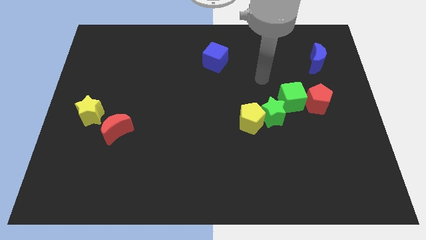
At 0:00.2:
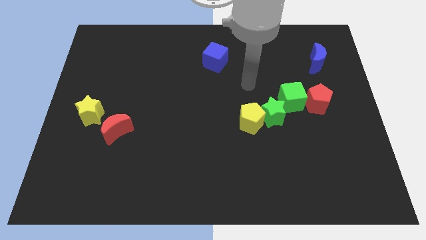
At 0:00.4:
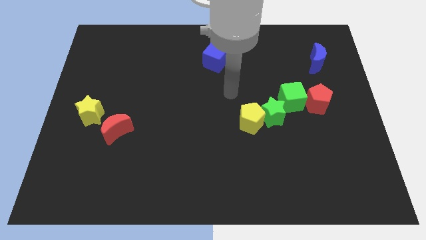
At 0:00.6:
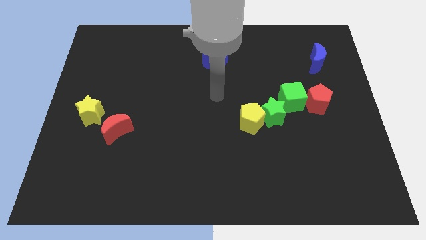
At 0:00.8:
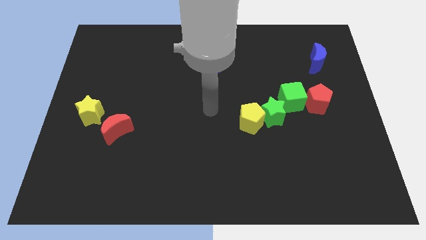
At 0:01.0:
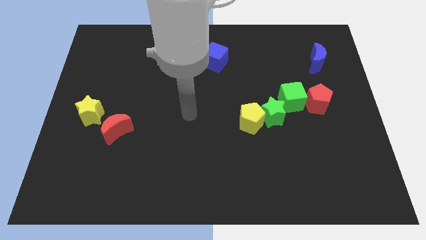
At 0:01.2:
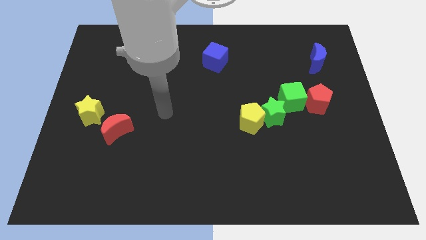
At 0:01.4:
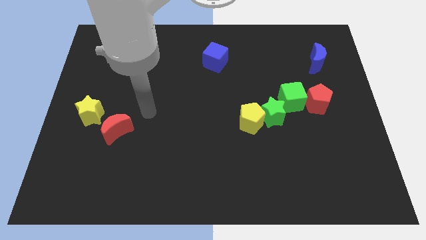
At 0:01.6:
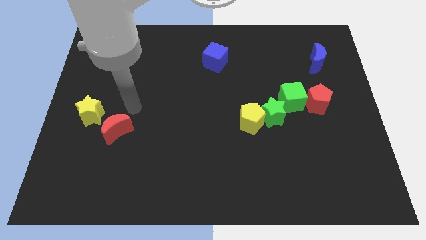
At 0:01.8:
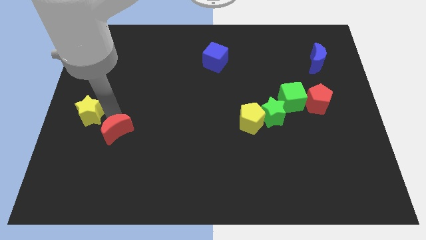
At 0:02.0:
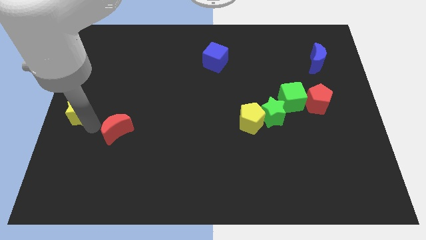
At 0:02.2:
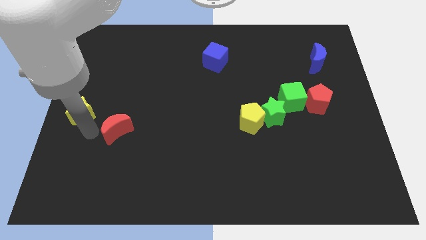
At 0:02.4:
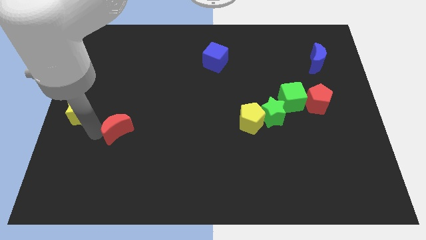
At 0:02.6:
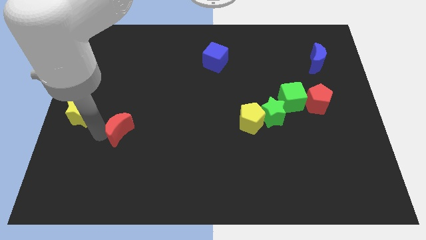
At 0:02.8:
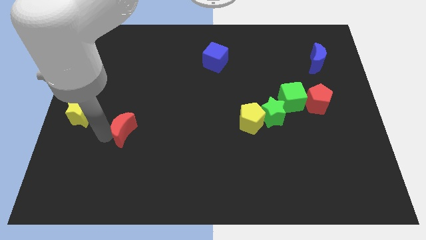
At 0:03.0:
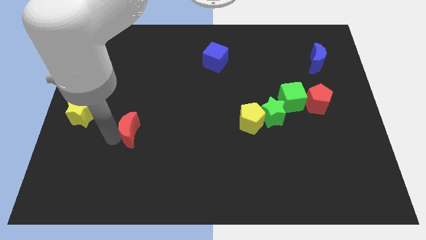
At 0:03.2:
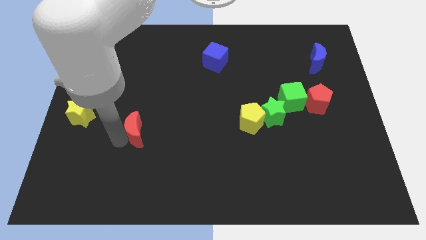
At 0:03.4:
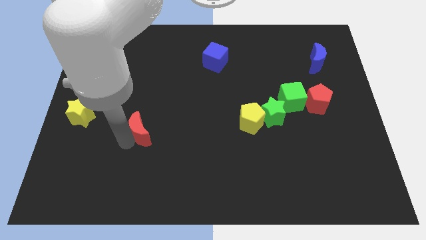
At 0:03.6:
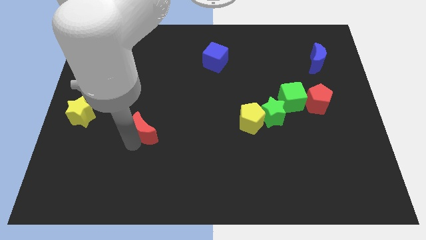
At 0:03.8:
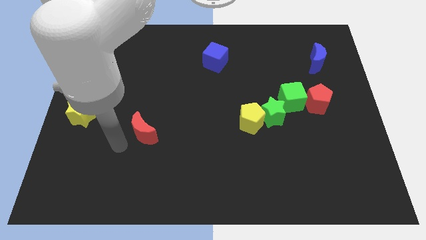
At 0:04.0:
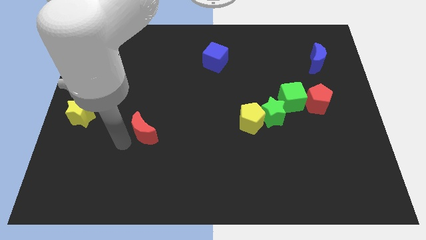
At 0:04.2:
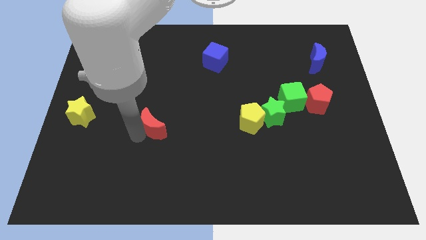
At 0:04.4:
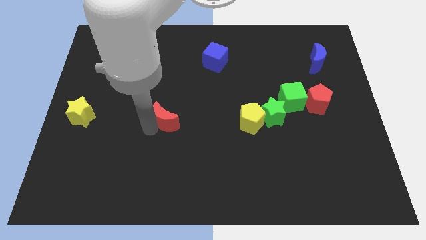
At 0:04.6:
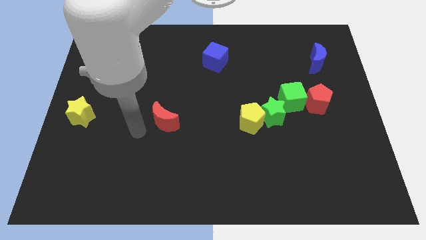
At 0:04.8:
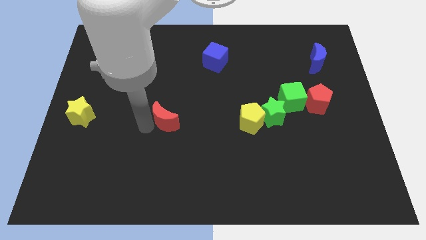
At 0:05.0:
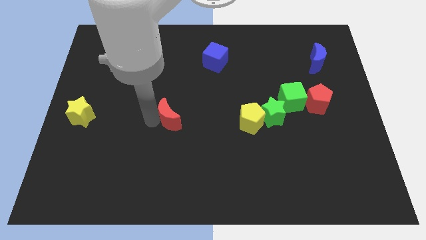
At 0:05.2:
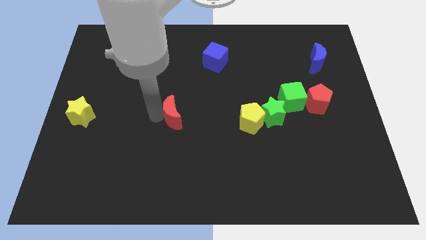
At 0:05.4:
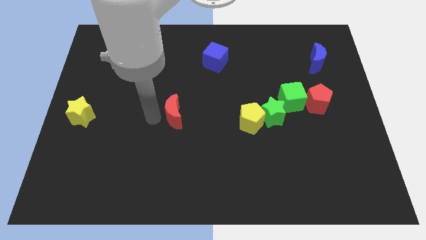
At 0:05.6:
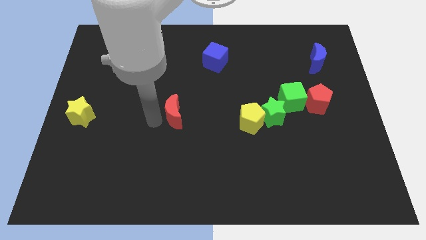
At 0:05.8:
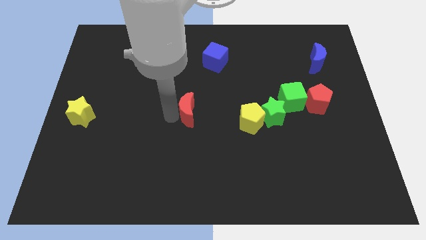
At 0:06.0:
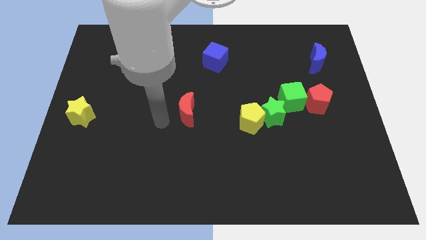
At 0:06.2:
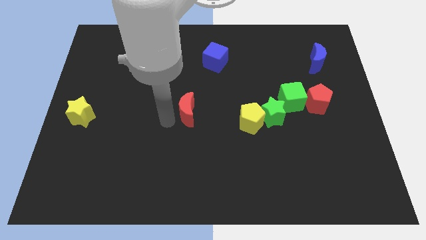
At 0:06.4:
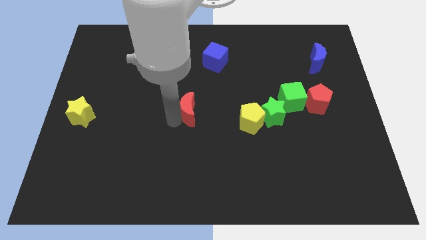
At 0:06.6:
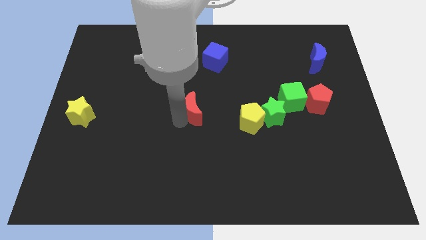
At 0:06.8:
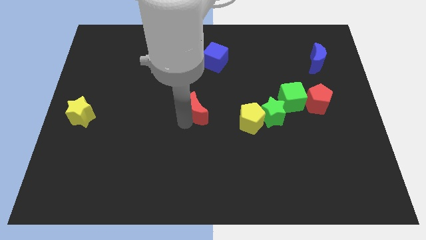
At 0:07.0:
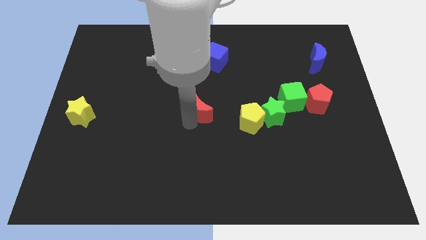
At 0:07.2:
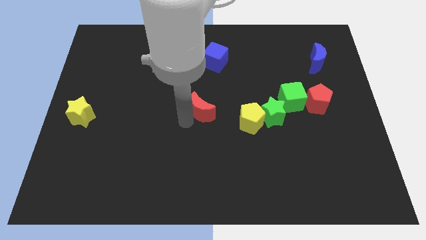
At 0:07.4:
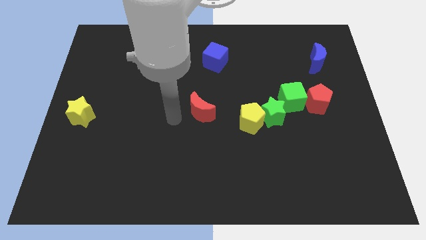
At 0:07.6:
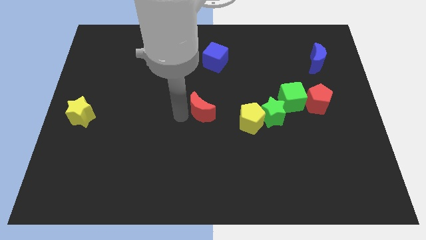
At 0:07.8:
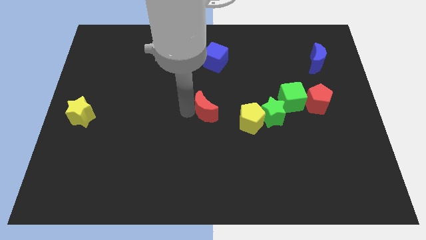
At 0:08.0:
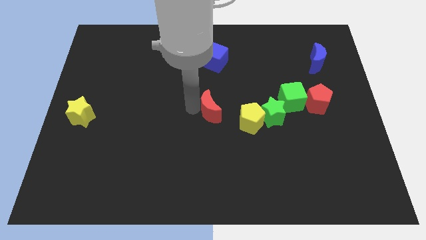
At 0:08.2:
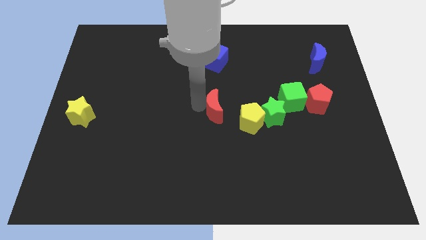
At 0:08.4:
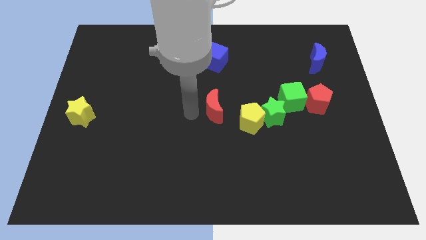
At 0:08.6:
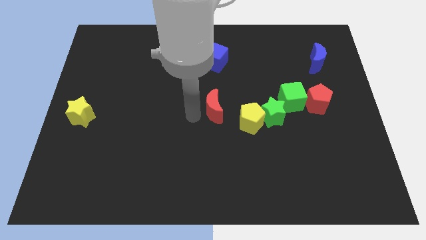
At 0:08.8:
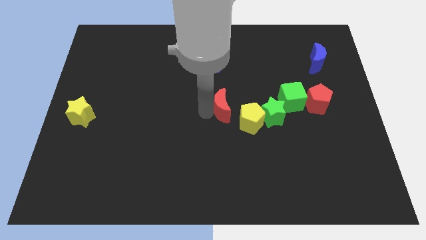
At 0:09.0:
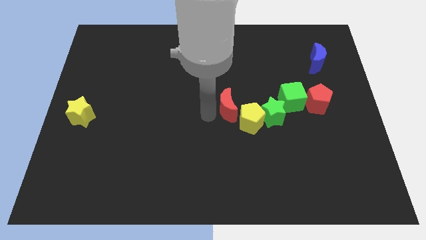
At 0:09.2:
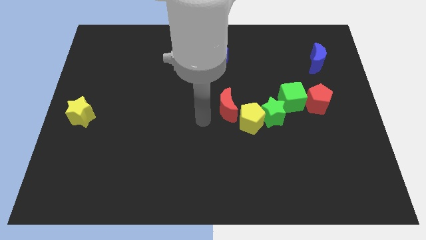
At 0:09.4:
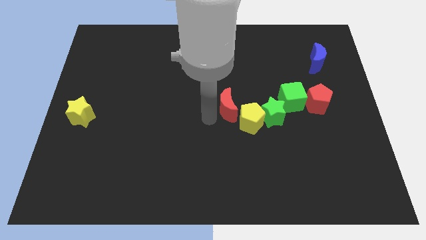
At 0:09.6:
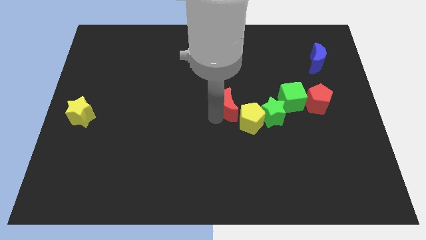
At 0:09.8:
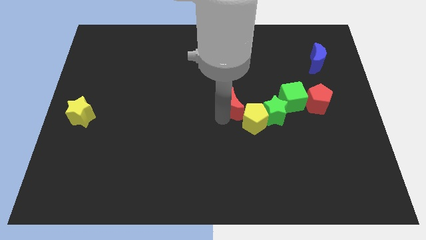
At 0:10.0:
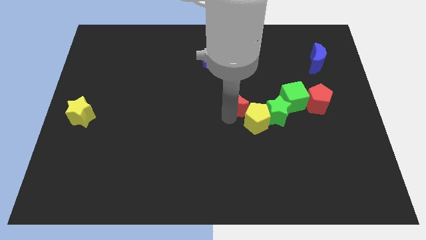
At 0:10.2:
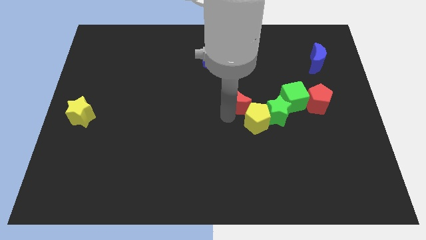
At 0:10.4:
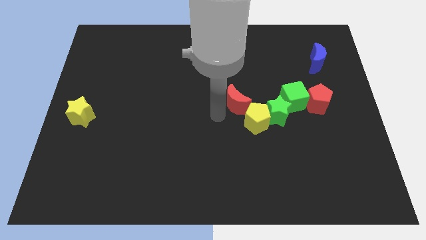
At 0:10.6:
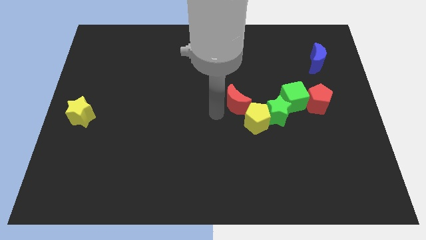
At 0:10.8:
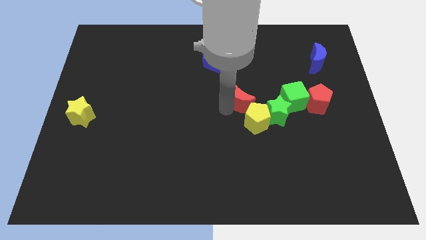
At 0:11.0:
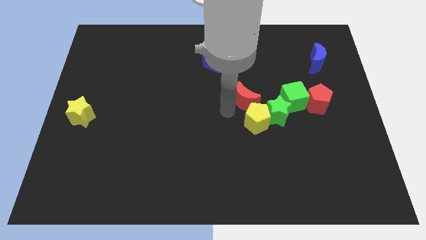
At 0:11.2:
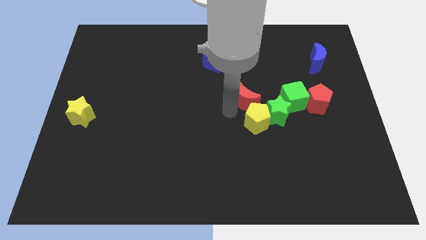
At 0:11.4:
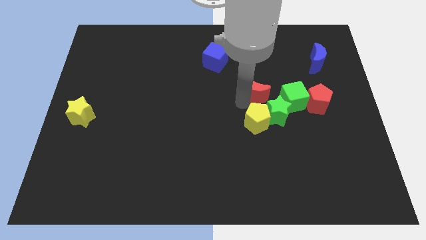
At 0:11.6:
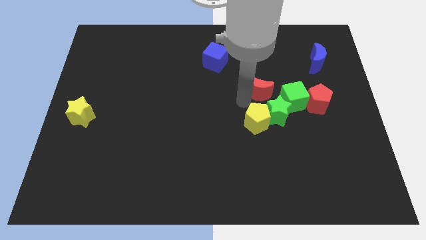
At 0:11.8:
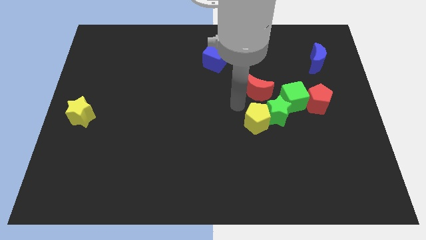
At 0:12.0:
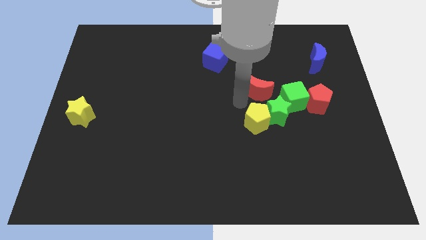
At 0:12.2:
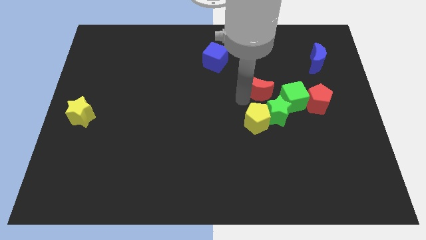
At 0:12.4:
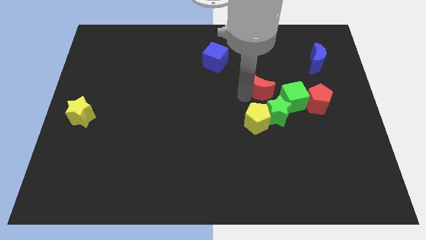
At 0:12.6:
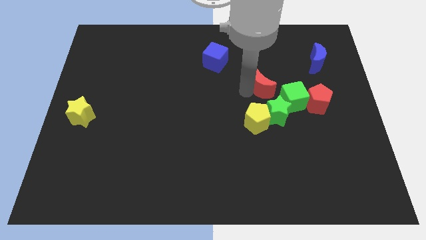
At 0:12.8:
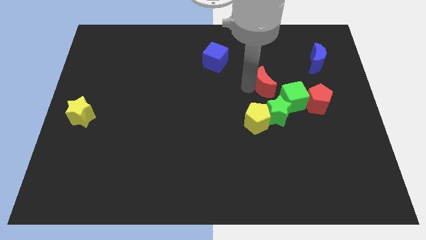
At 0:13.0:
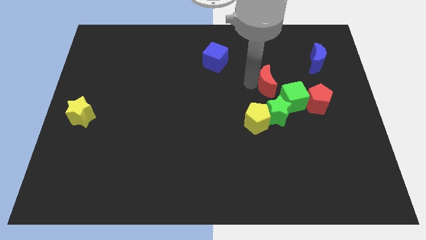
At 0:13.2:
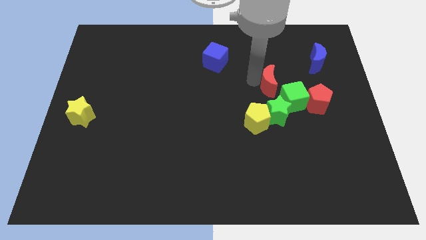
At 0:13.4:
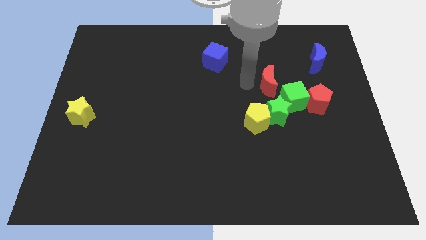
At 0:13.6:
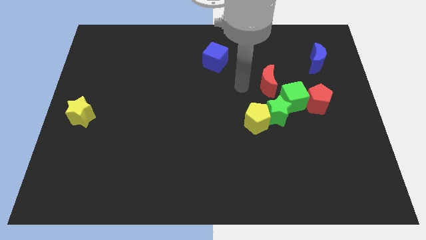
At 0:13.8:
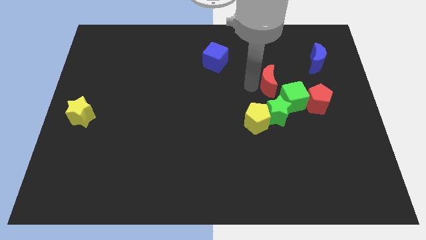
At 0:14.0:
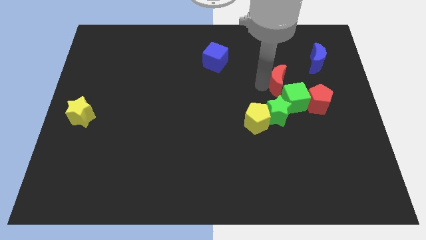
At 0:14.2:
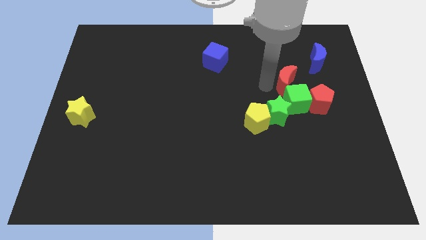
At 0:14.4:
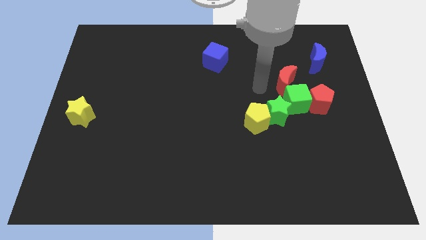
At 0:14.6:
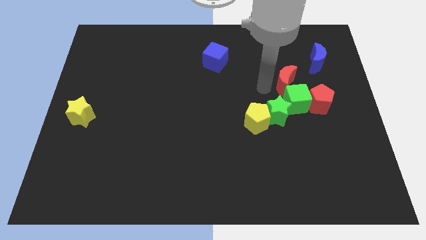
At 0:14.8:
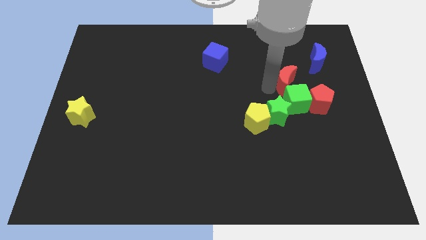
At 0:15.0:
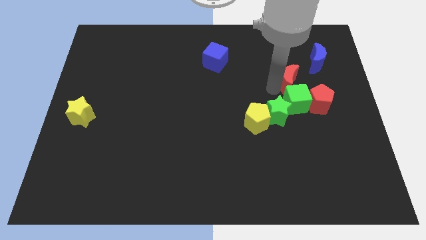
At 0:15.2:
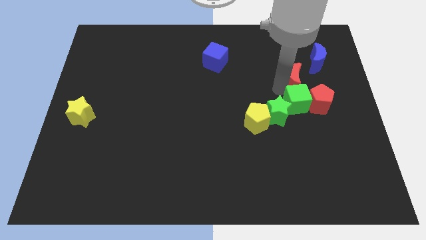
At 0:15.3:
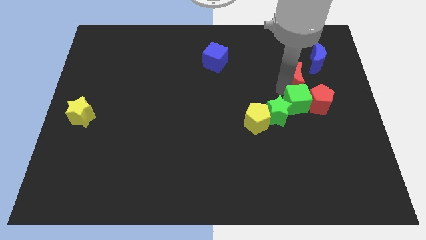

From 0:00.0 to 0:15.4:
push the red moon to the top side of the red pentagon
